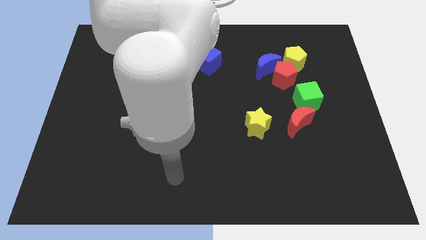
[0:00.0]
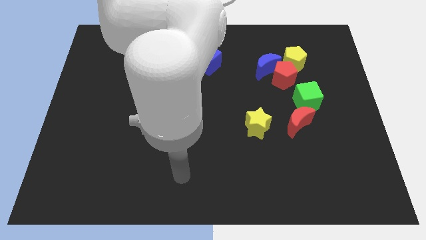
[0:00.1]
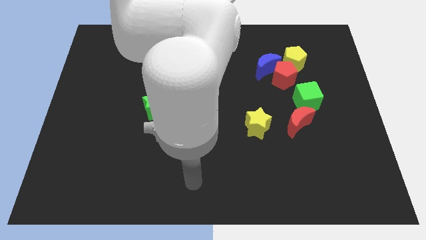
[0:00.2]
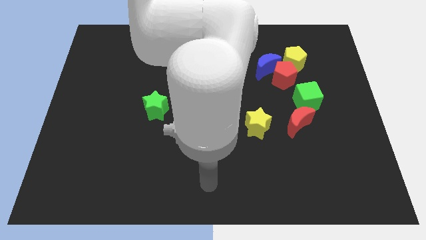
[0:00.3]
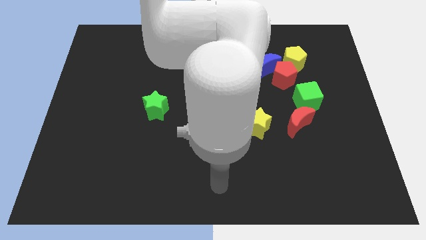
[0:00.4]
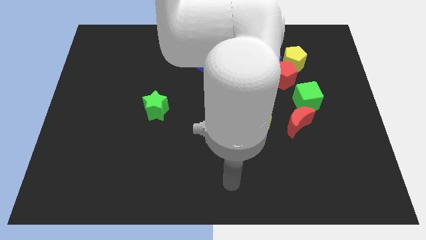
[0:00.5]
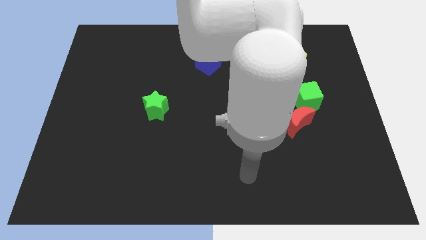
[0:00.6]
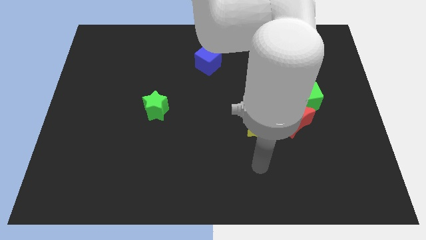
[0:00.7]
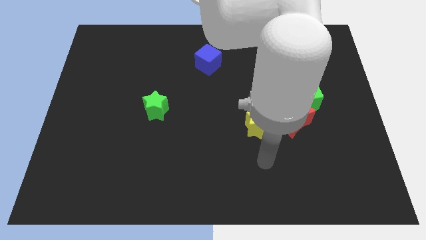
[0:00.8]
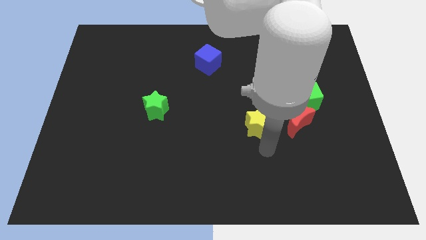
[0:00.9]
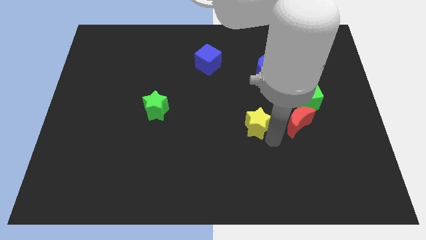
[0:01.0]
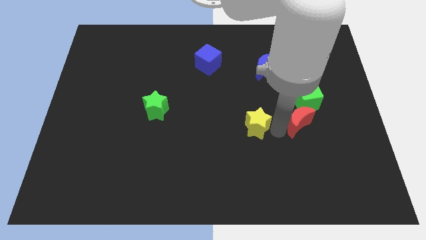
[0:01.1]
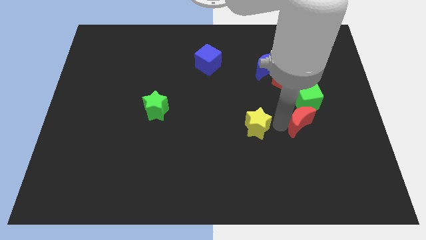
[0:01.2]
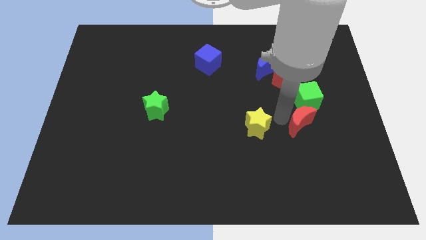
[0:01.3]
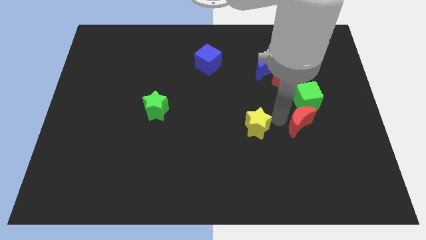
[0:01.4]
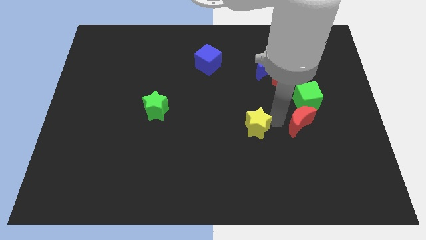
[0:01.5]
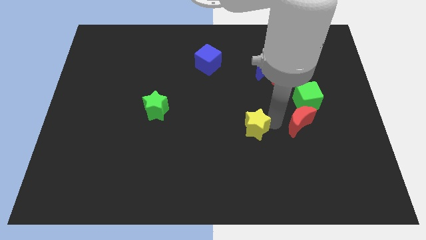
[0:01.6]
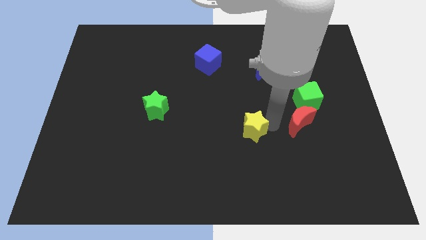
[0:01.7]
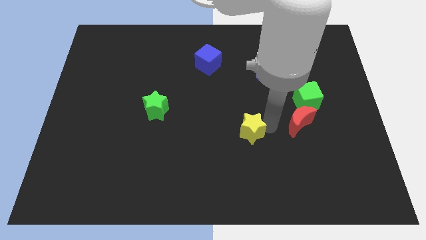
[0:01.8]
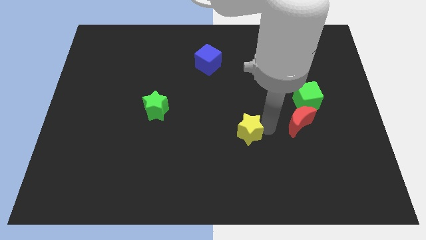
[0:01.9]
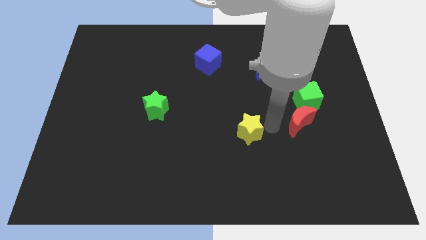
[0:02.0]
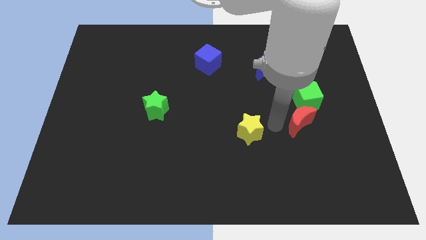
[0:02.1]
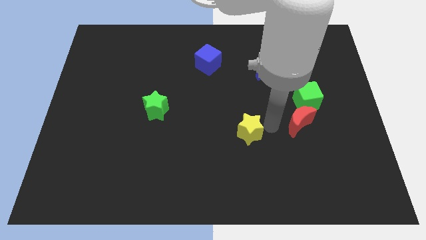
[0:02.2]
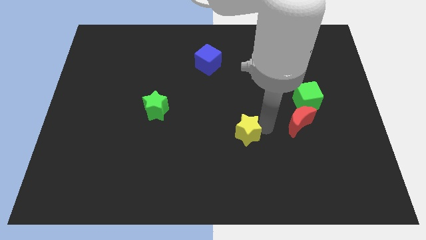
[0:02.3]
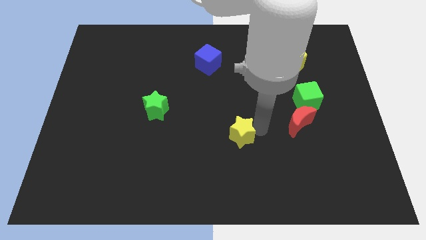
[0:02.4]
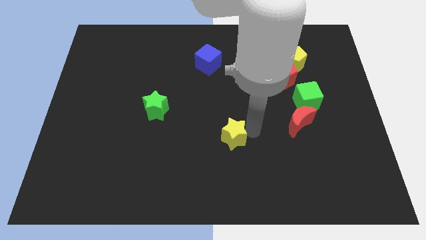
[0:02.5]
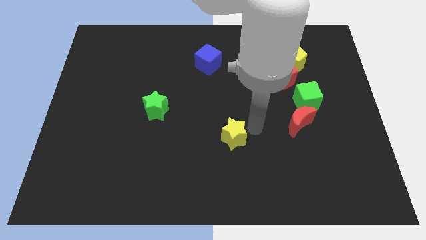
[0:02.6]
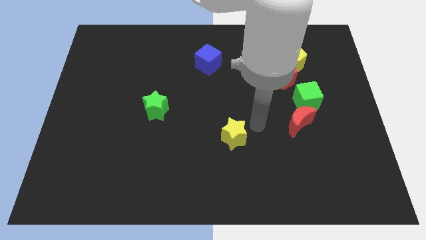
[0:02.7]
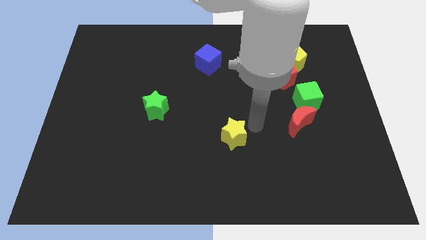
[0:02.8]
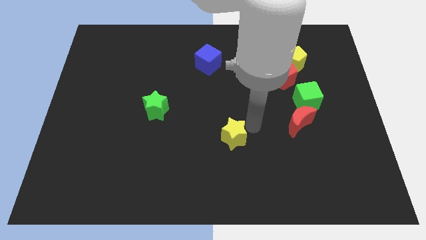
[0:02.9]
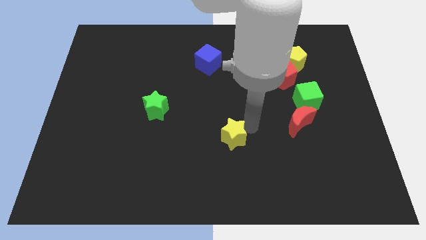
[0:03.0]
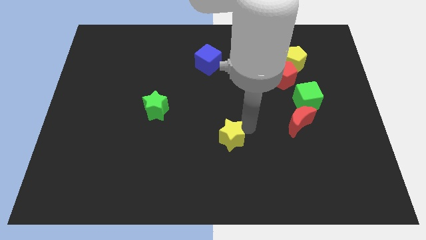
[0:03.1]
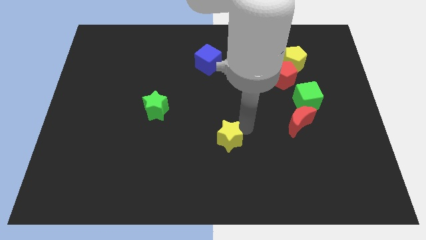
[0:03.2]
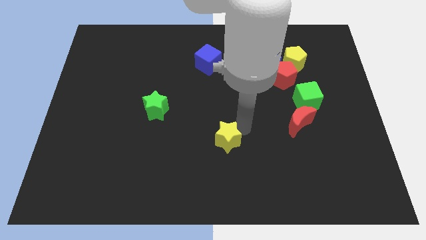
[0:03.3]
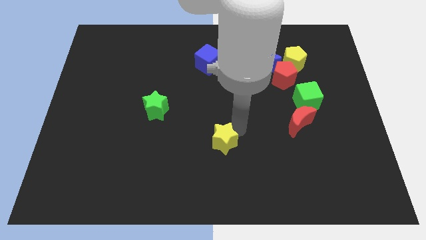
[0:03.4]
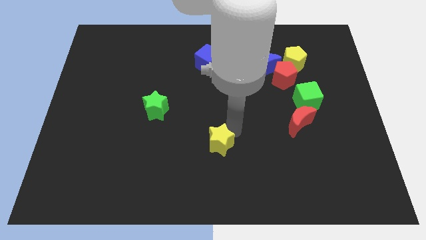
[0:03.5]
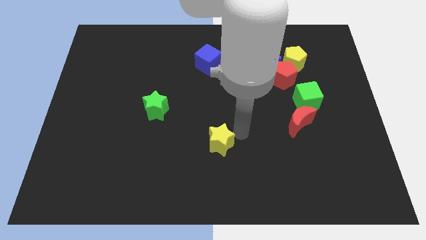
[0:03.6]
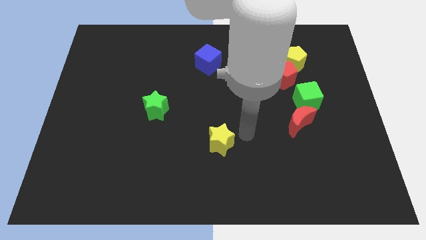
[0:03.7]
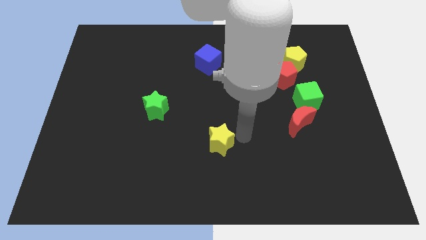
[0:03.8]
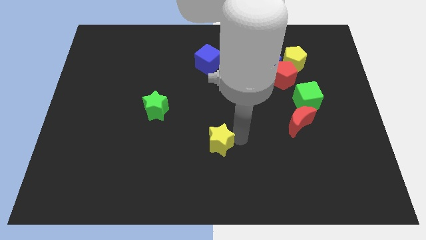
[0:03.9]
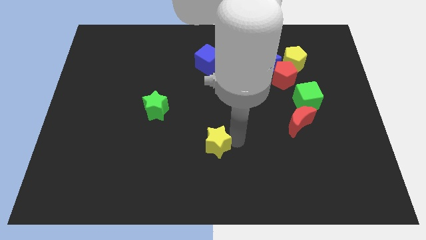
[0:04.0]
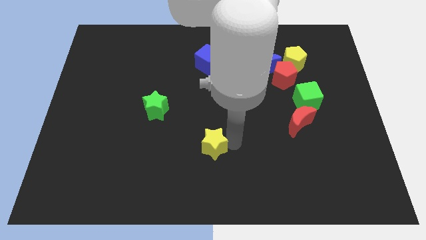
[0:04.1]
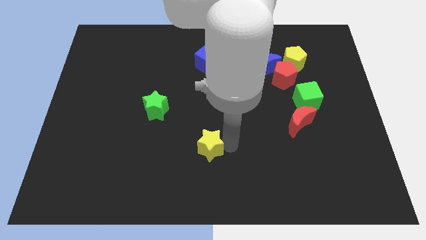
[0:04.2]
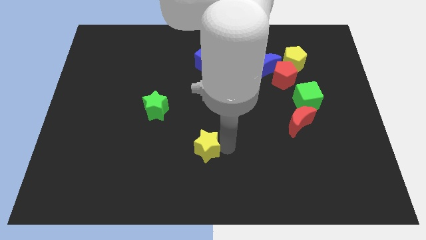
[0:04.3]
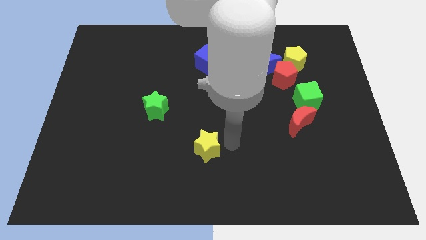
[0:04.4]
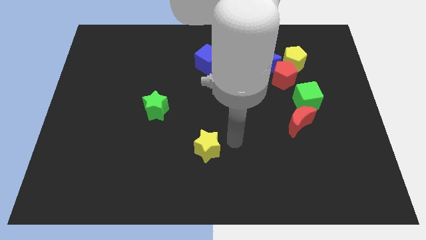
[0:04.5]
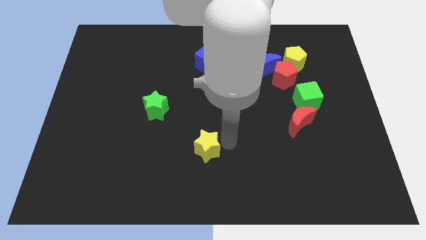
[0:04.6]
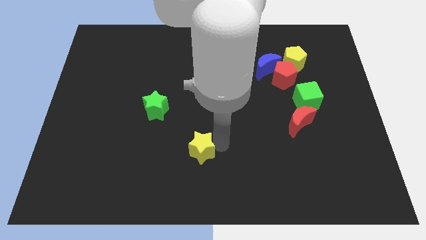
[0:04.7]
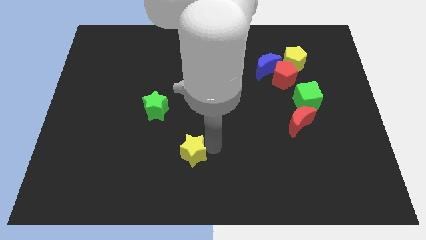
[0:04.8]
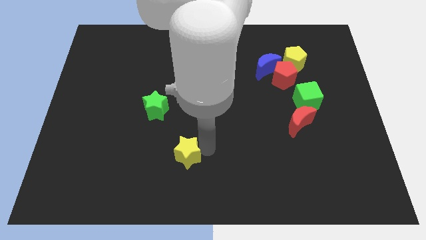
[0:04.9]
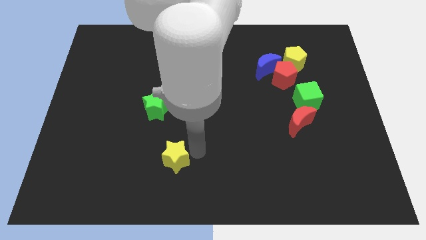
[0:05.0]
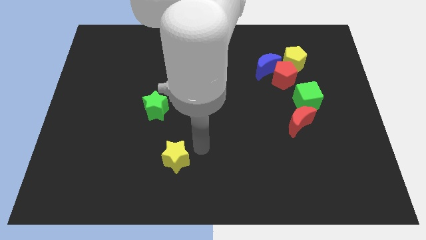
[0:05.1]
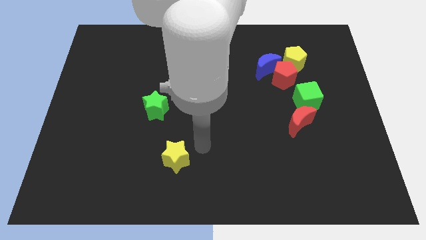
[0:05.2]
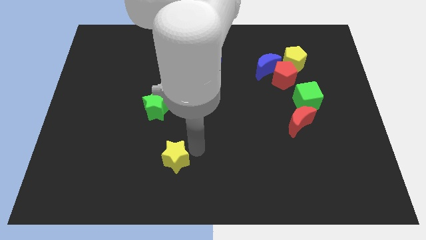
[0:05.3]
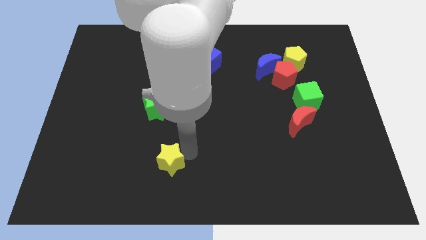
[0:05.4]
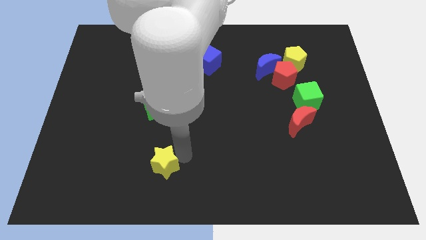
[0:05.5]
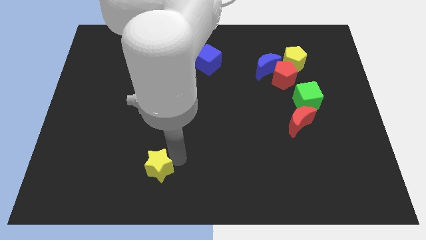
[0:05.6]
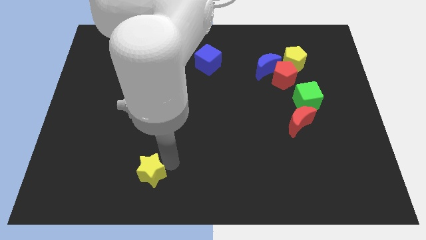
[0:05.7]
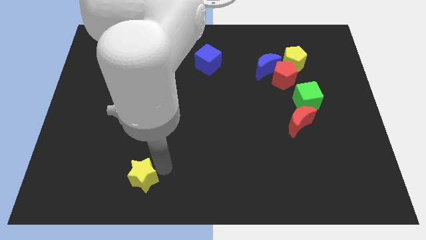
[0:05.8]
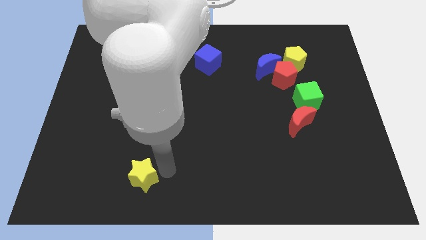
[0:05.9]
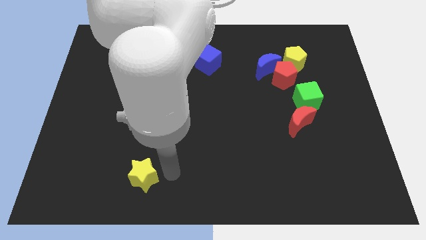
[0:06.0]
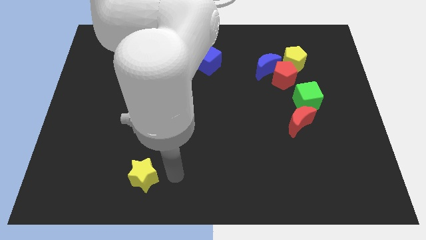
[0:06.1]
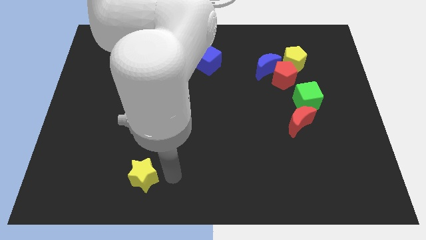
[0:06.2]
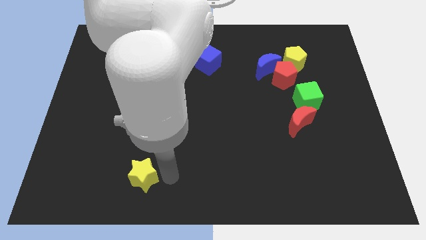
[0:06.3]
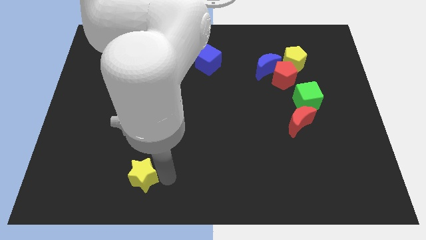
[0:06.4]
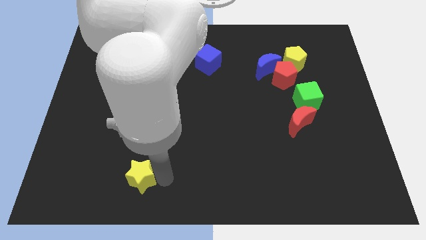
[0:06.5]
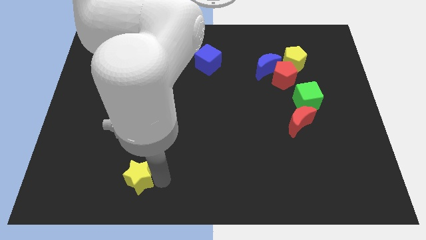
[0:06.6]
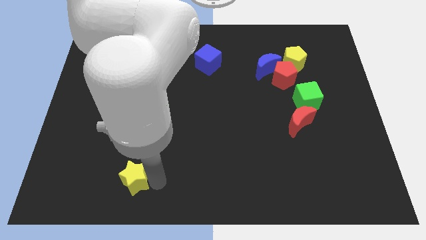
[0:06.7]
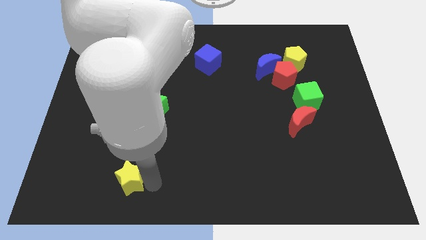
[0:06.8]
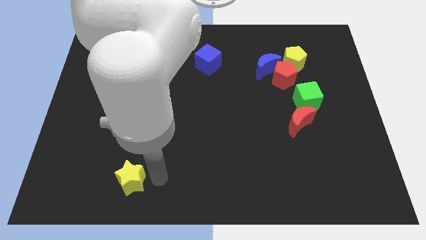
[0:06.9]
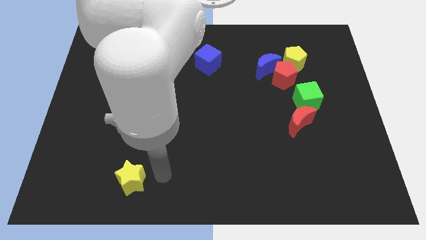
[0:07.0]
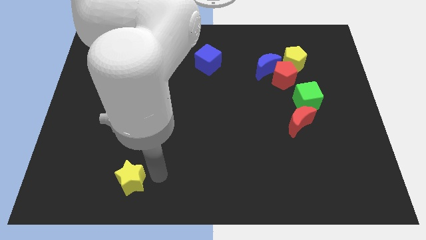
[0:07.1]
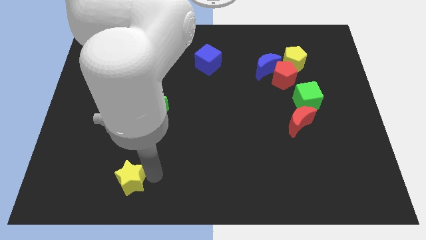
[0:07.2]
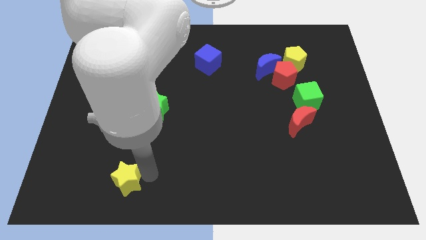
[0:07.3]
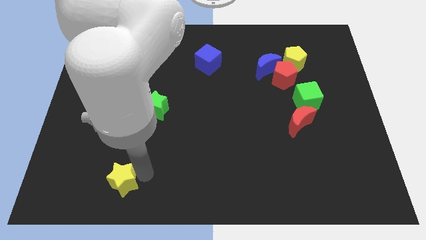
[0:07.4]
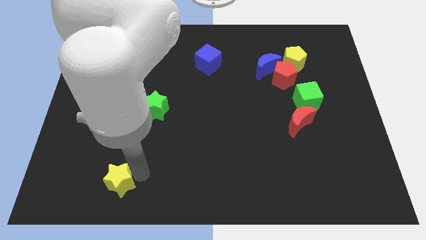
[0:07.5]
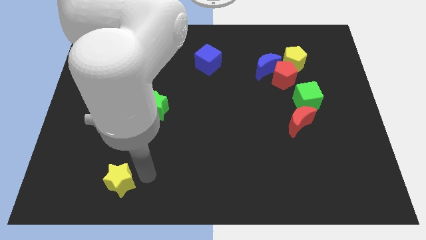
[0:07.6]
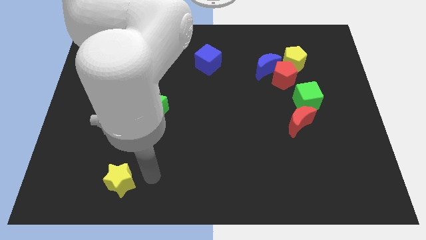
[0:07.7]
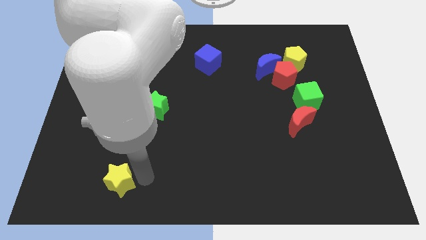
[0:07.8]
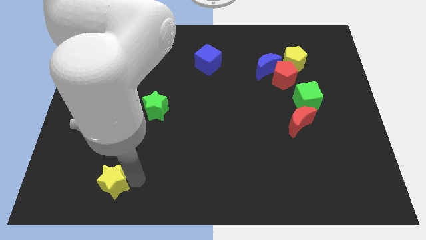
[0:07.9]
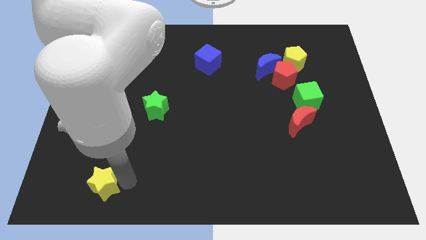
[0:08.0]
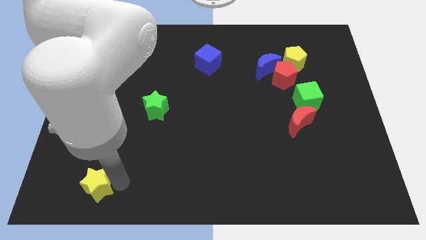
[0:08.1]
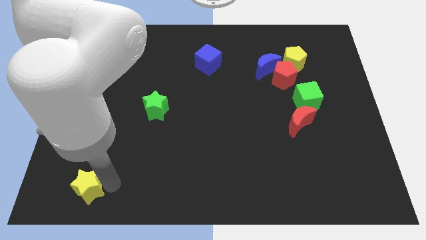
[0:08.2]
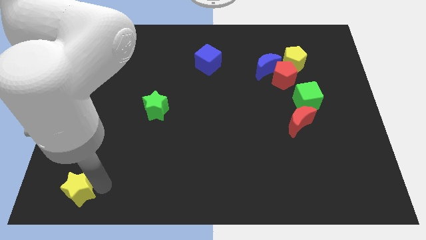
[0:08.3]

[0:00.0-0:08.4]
push the yellow star to the bottom left corner
